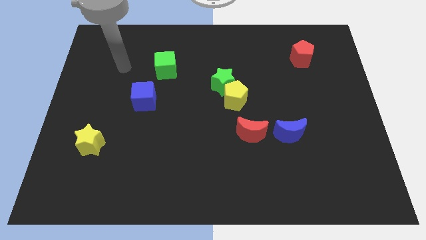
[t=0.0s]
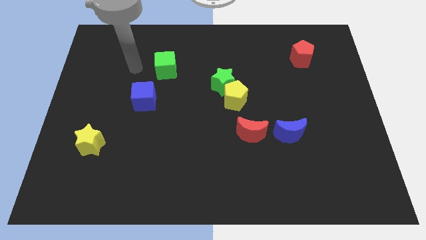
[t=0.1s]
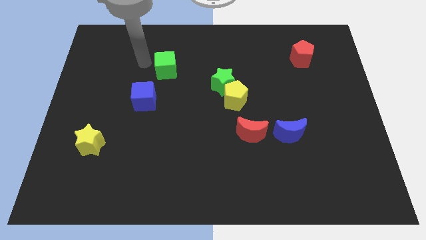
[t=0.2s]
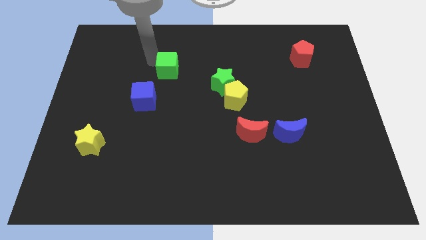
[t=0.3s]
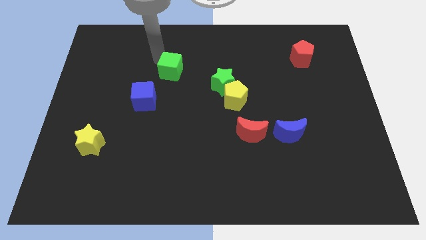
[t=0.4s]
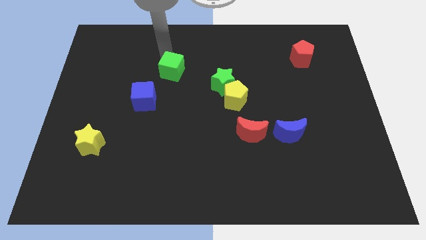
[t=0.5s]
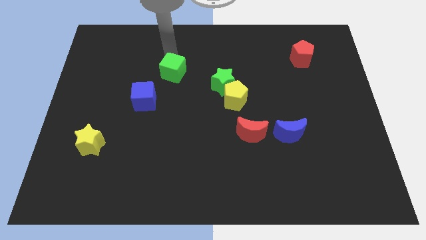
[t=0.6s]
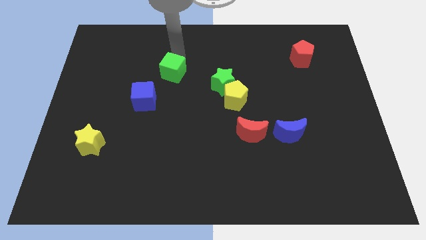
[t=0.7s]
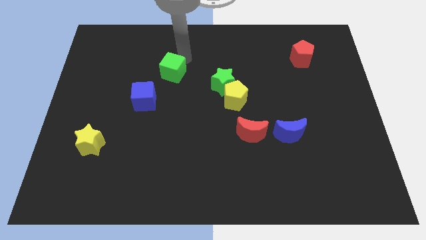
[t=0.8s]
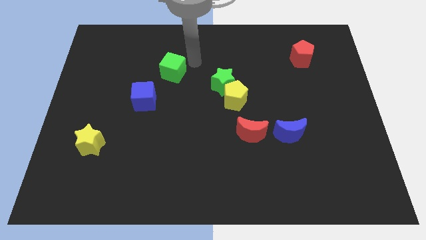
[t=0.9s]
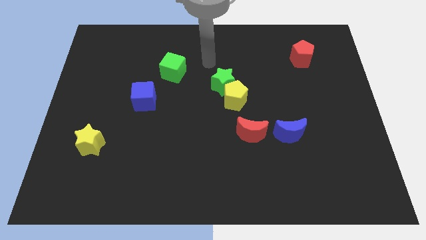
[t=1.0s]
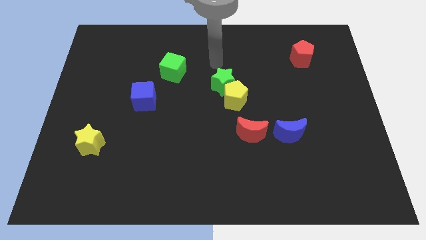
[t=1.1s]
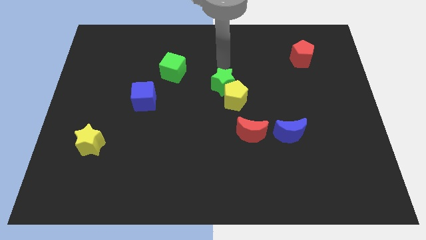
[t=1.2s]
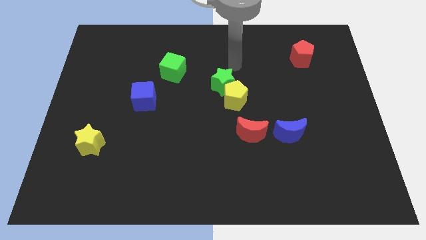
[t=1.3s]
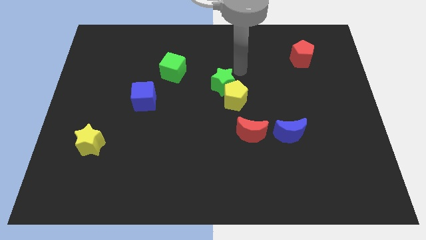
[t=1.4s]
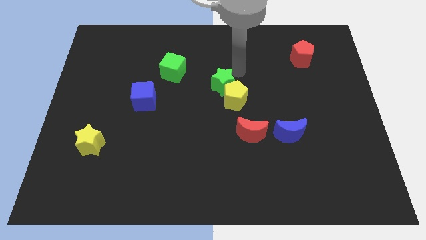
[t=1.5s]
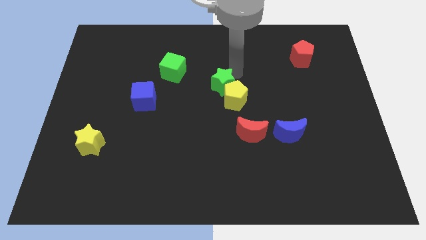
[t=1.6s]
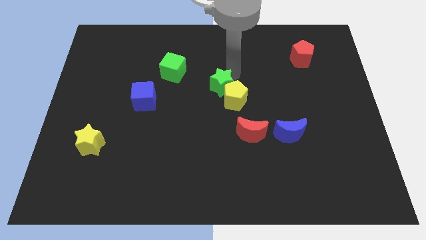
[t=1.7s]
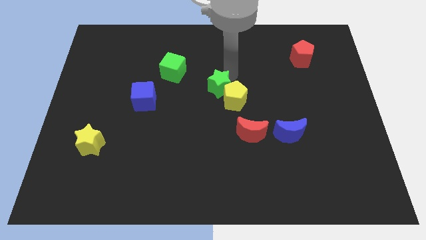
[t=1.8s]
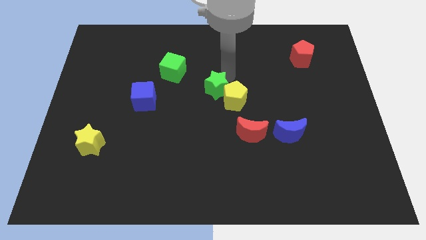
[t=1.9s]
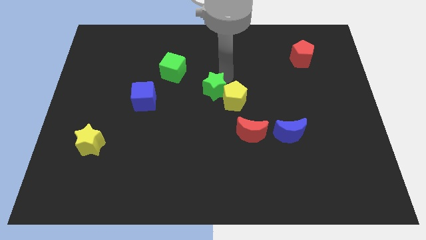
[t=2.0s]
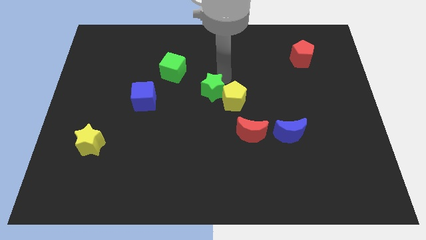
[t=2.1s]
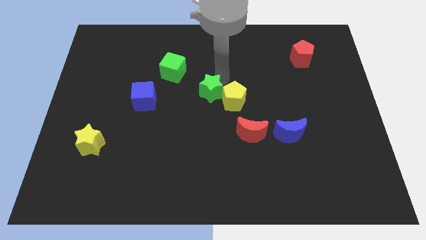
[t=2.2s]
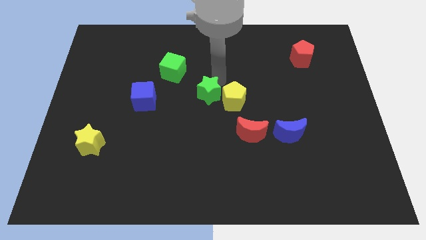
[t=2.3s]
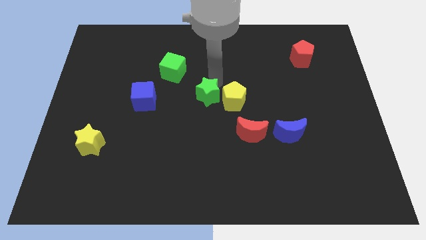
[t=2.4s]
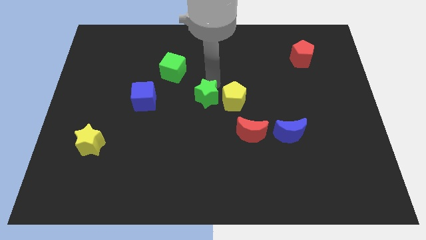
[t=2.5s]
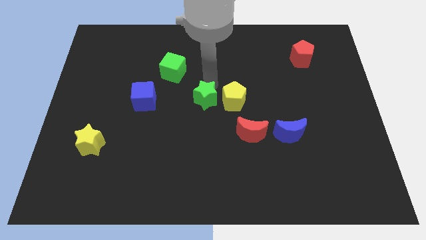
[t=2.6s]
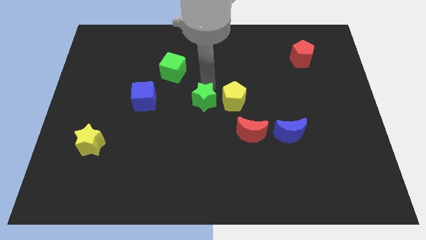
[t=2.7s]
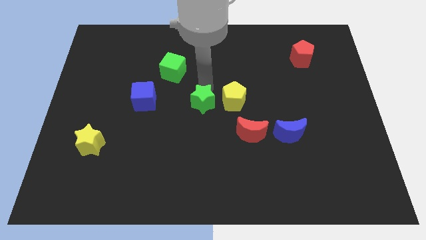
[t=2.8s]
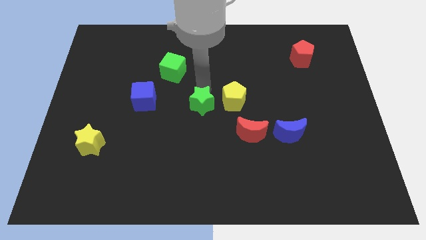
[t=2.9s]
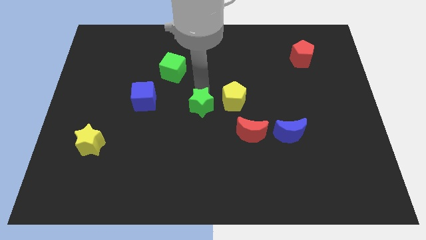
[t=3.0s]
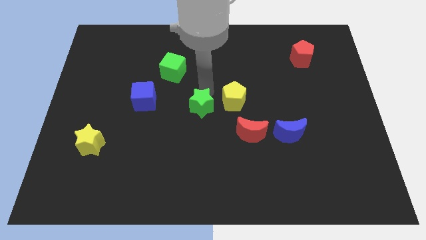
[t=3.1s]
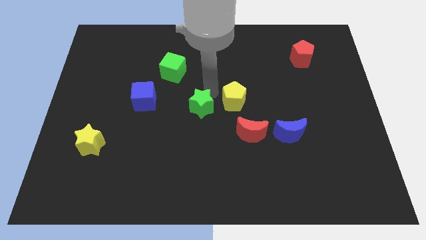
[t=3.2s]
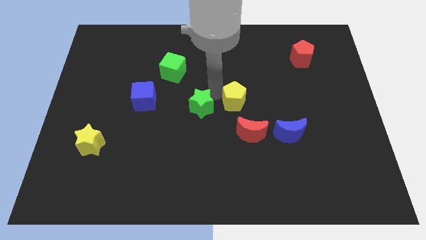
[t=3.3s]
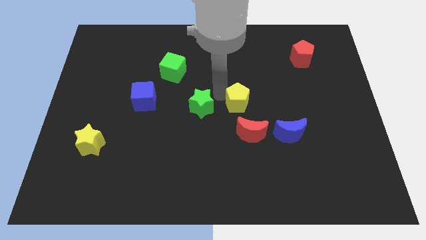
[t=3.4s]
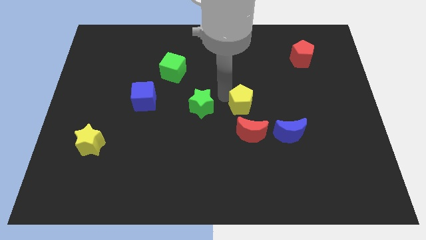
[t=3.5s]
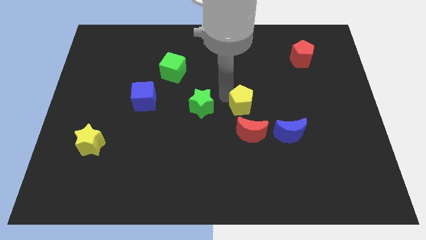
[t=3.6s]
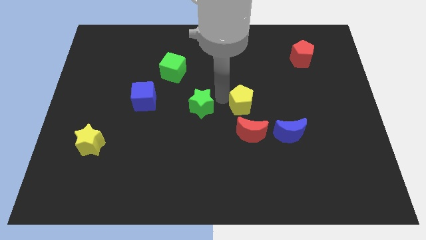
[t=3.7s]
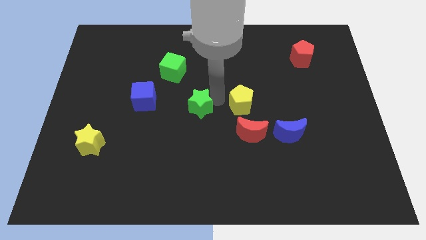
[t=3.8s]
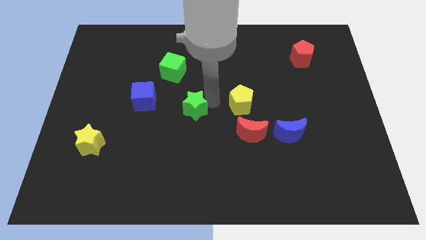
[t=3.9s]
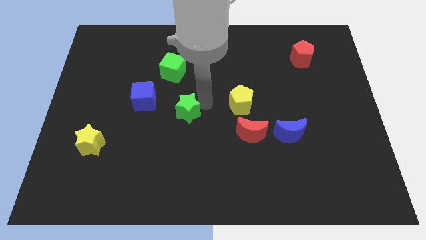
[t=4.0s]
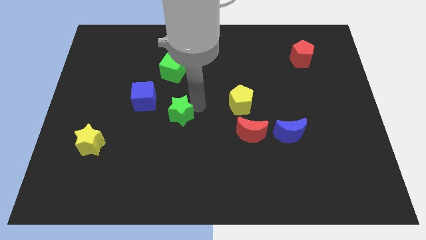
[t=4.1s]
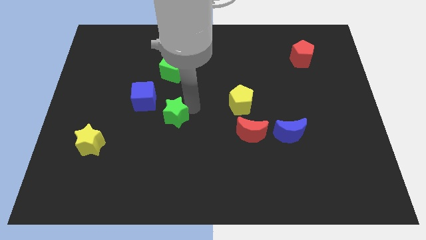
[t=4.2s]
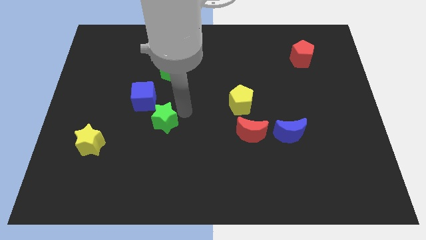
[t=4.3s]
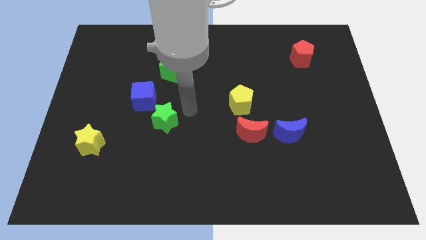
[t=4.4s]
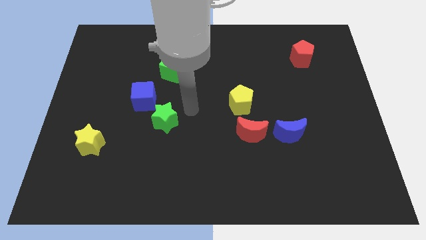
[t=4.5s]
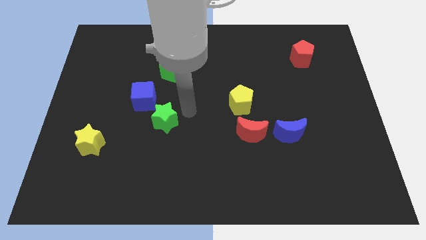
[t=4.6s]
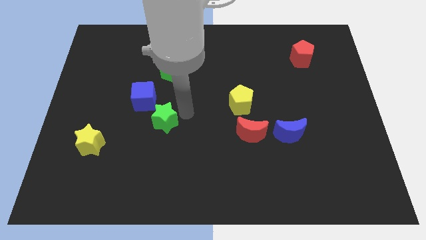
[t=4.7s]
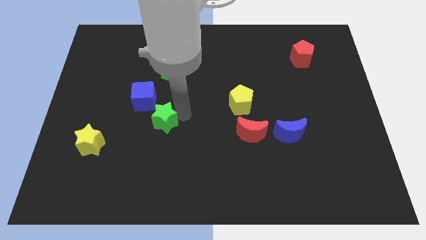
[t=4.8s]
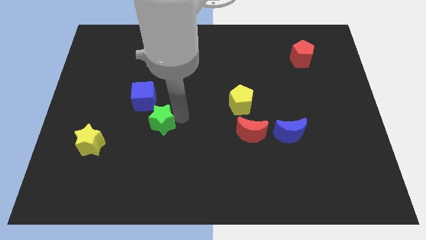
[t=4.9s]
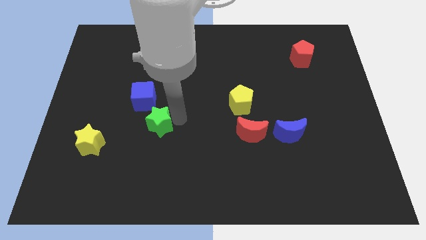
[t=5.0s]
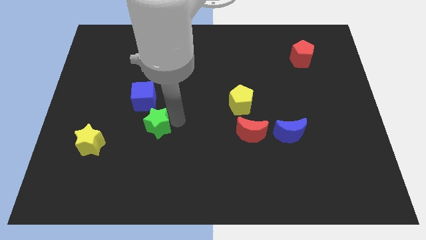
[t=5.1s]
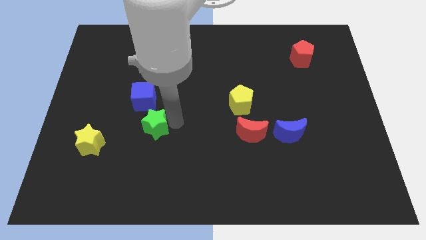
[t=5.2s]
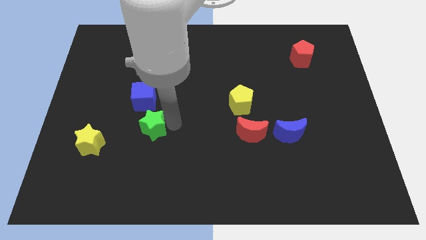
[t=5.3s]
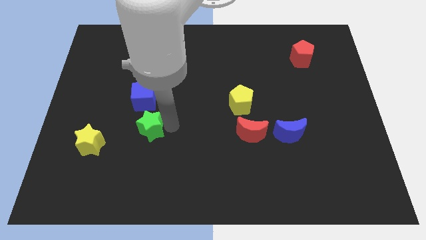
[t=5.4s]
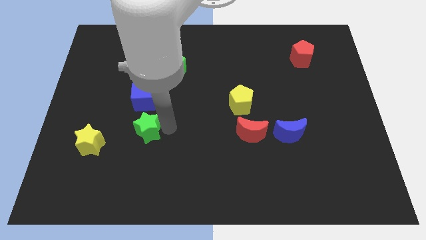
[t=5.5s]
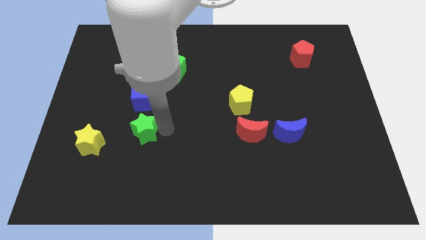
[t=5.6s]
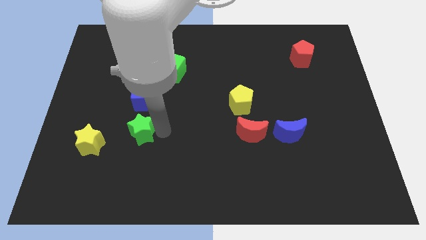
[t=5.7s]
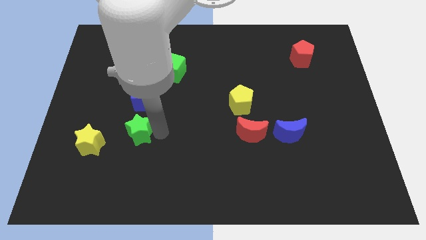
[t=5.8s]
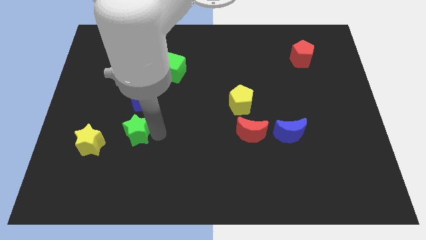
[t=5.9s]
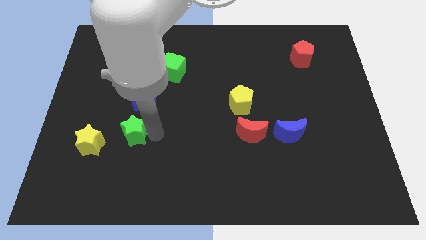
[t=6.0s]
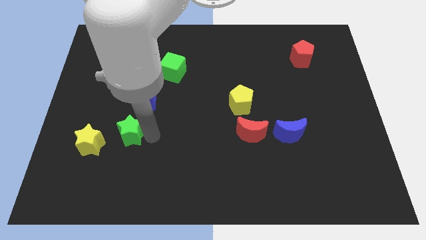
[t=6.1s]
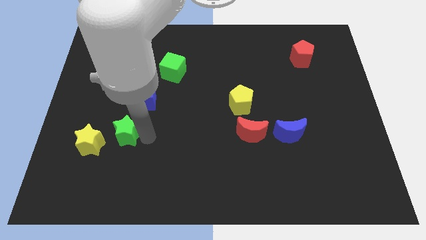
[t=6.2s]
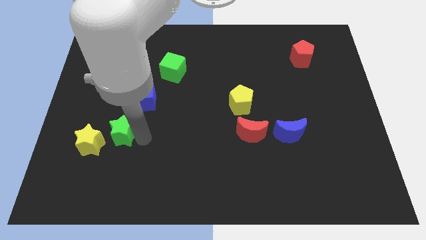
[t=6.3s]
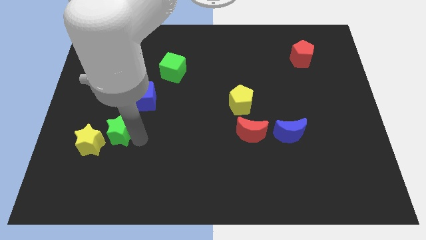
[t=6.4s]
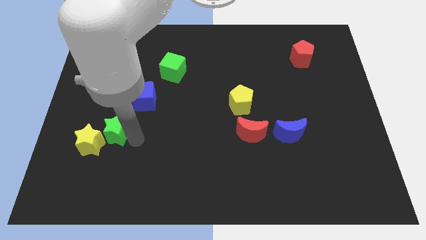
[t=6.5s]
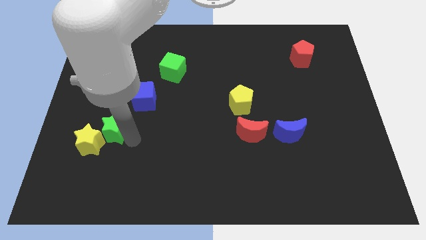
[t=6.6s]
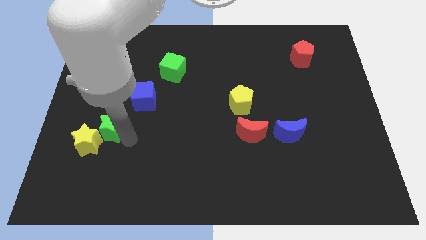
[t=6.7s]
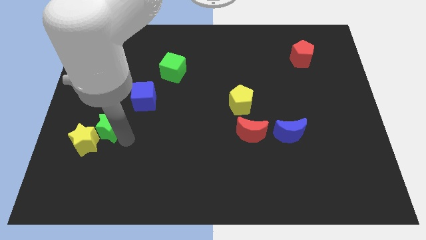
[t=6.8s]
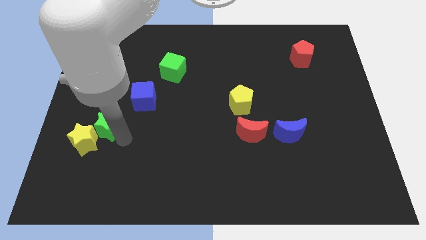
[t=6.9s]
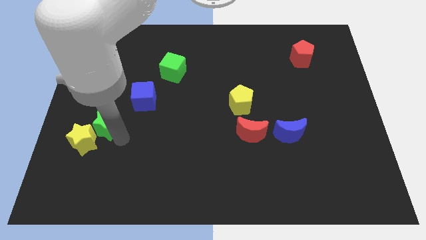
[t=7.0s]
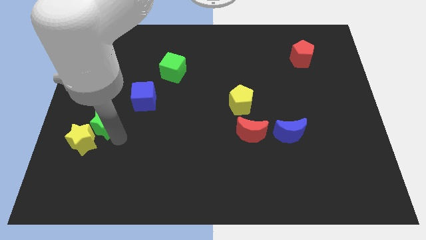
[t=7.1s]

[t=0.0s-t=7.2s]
push the green star to the top side of the yellow star
